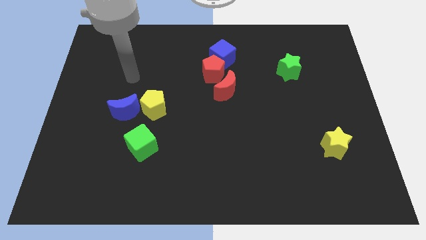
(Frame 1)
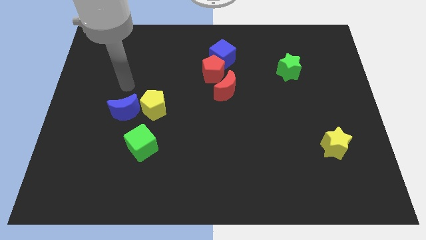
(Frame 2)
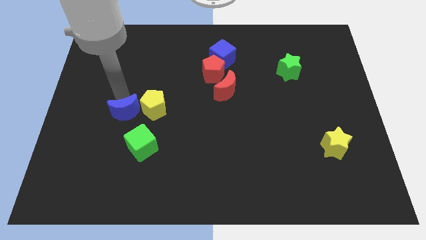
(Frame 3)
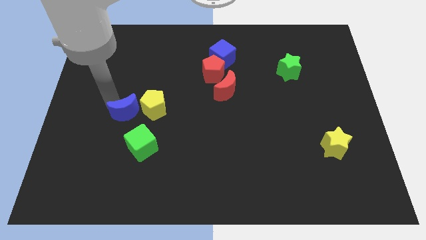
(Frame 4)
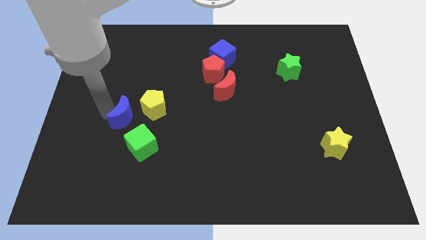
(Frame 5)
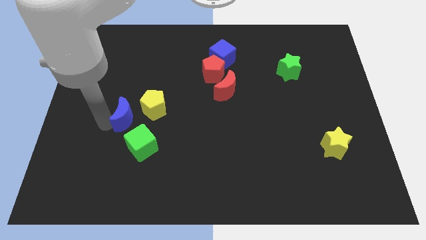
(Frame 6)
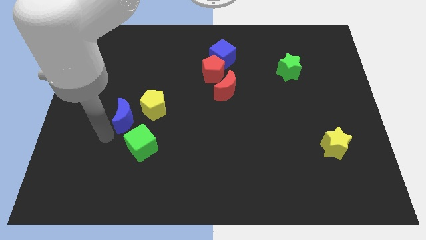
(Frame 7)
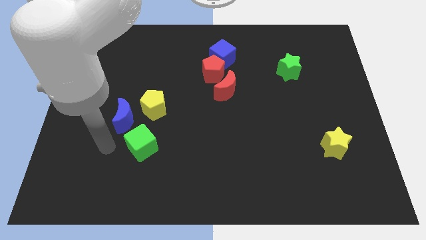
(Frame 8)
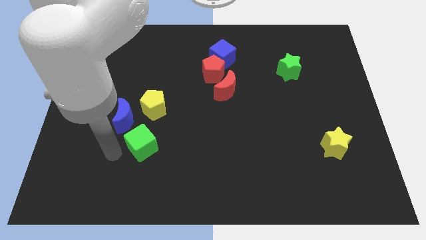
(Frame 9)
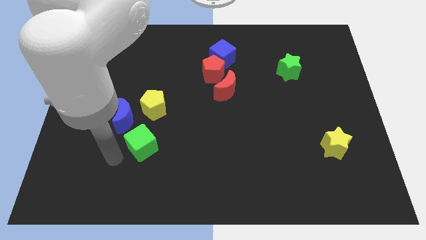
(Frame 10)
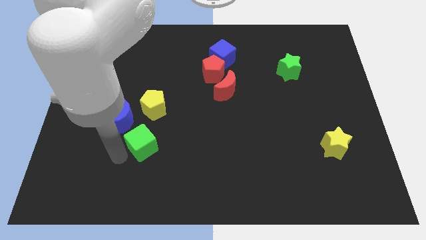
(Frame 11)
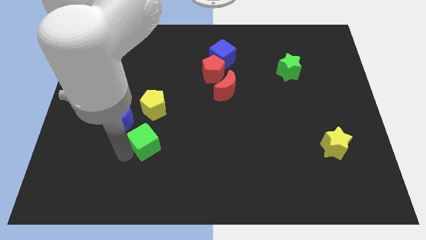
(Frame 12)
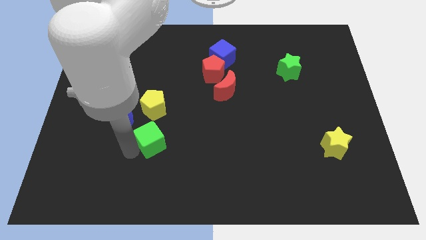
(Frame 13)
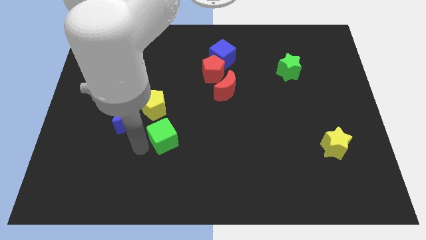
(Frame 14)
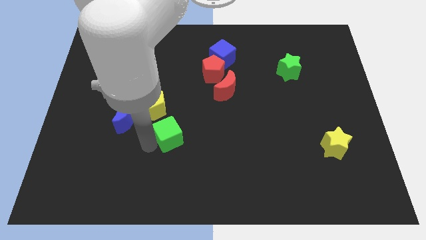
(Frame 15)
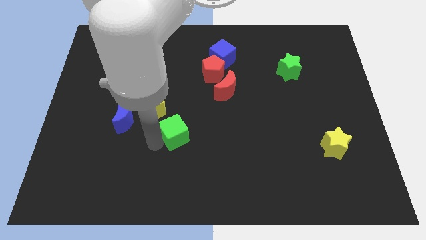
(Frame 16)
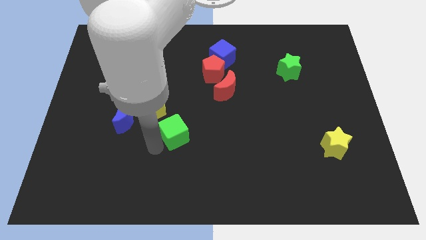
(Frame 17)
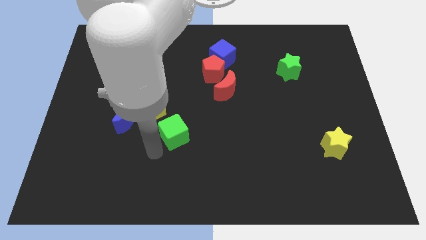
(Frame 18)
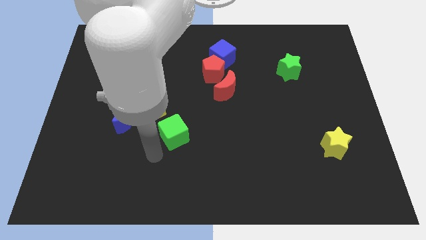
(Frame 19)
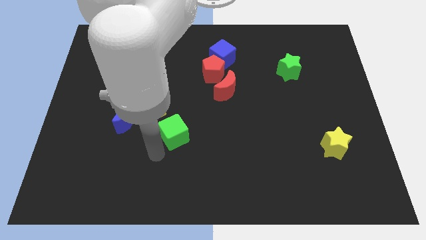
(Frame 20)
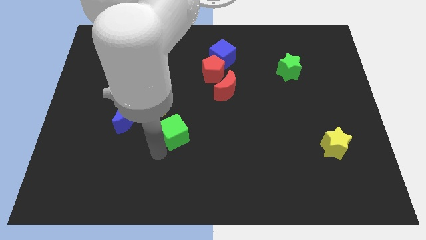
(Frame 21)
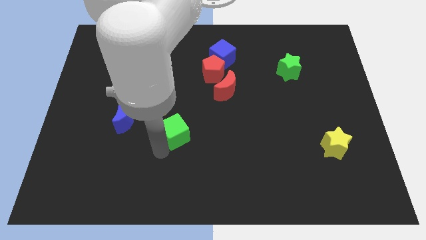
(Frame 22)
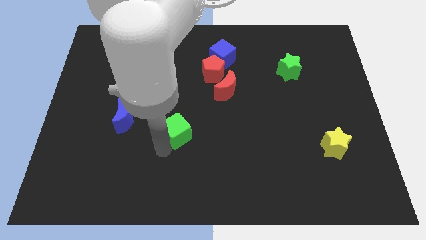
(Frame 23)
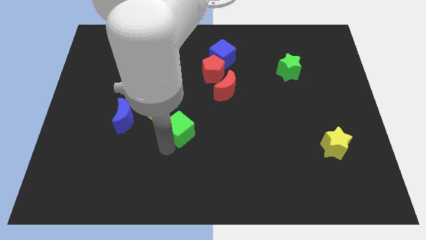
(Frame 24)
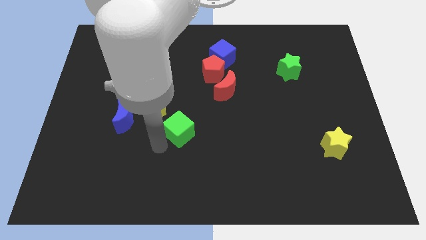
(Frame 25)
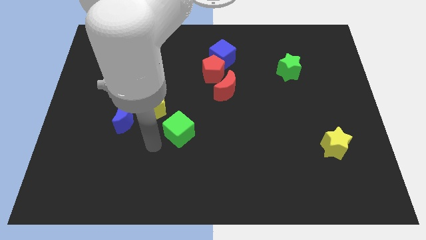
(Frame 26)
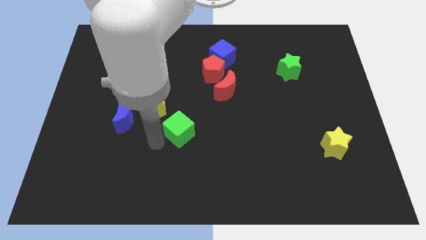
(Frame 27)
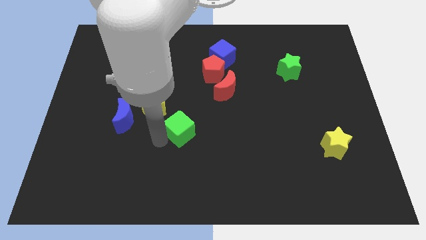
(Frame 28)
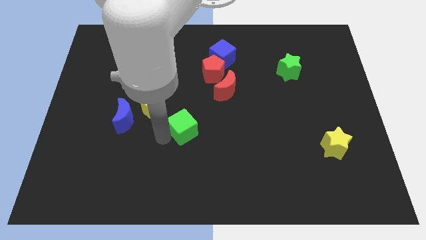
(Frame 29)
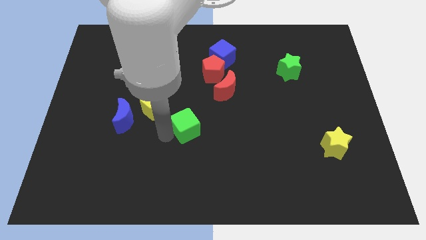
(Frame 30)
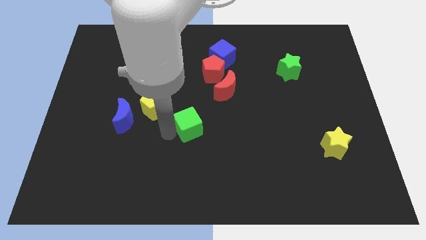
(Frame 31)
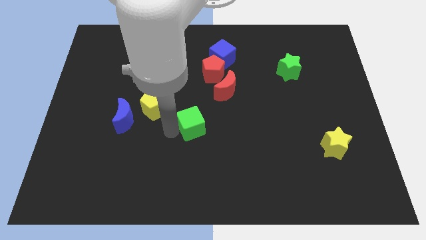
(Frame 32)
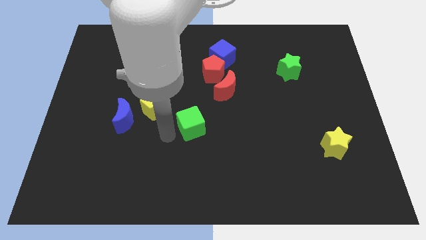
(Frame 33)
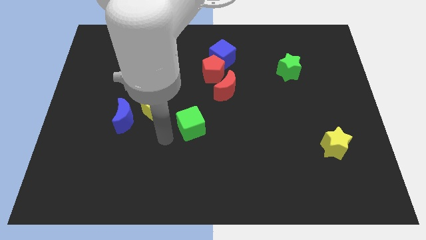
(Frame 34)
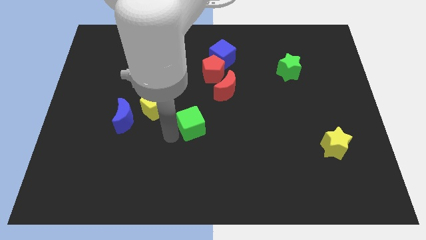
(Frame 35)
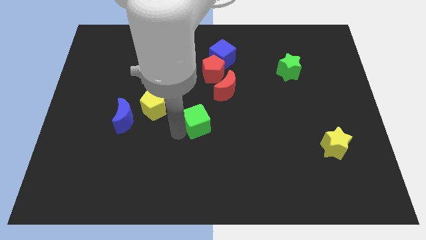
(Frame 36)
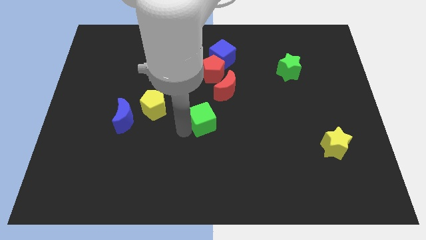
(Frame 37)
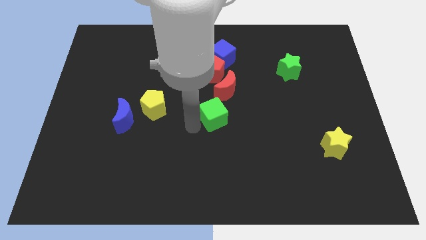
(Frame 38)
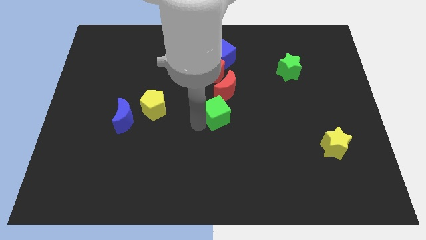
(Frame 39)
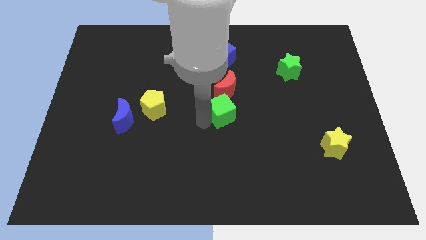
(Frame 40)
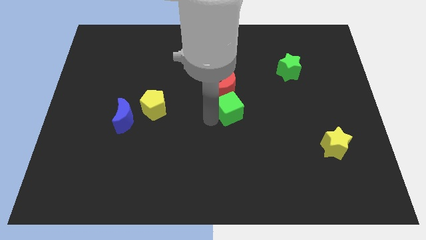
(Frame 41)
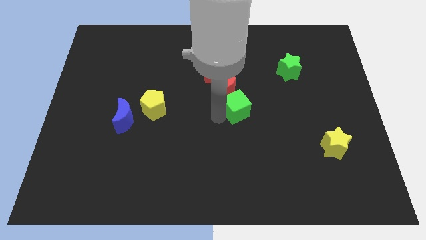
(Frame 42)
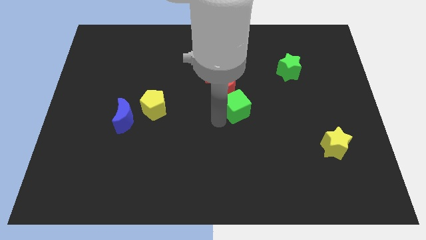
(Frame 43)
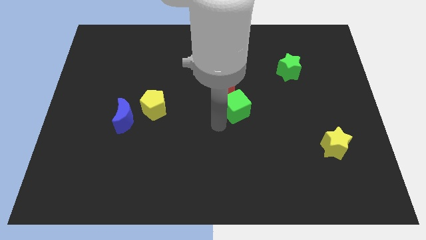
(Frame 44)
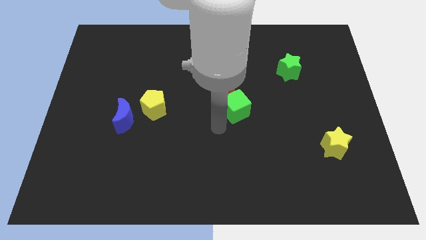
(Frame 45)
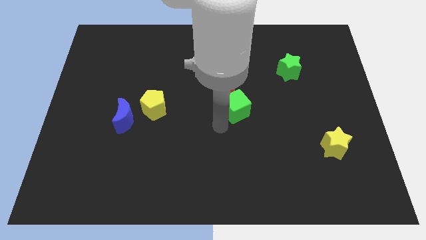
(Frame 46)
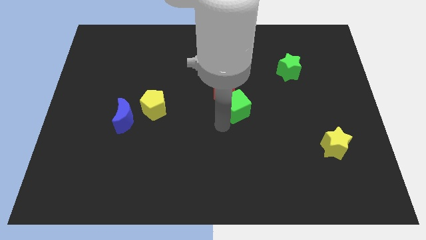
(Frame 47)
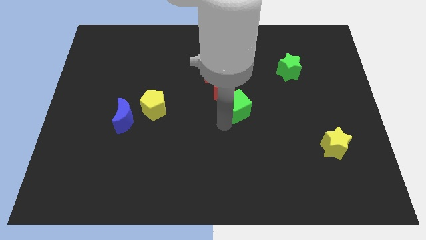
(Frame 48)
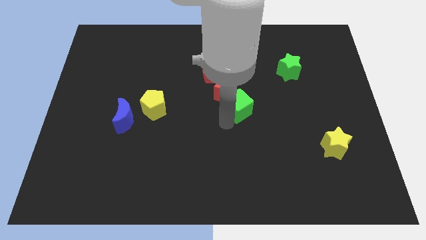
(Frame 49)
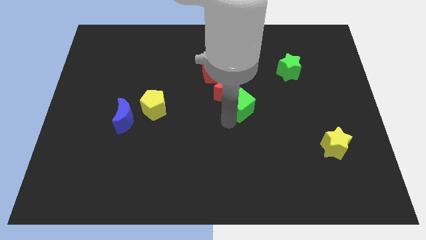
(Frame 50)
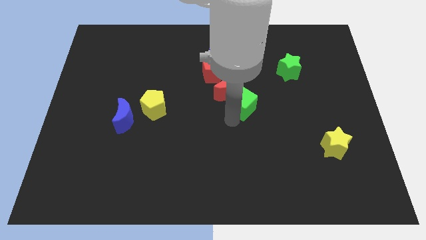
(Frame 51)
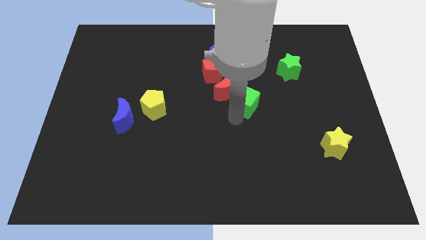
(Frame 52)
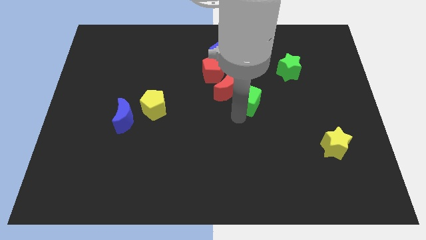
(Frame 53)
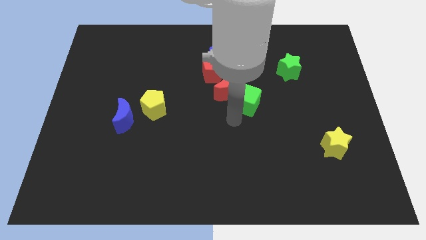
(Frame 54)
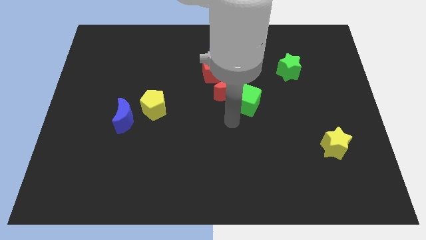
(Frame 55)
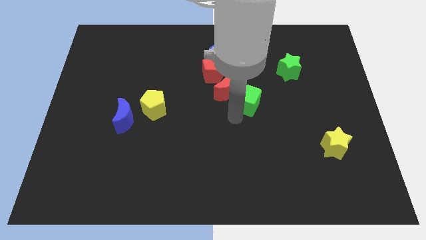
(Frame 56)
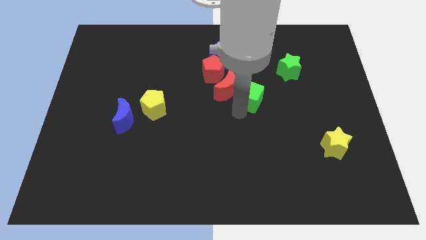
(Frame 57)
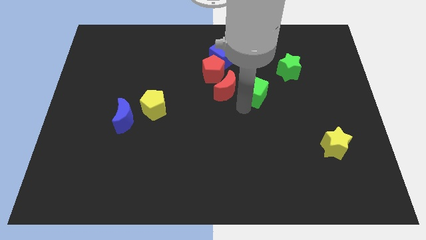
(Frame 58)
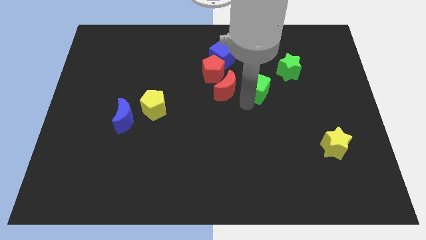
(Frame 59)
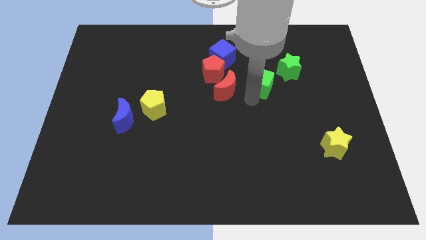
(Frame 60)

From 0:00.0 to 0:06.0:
move the green cube right of the red pentagon

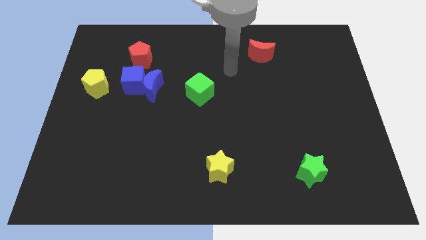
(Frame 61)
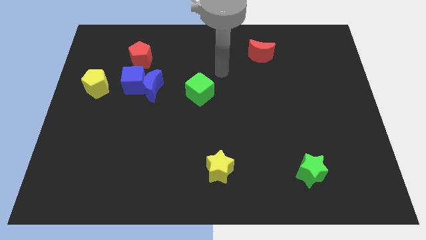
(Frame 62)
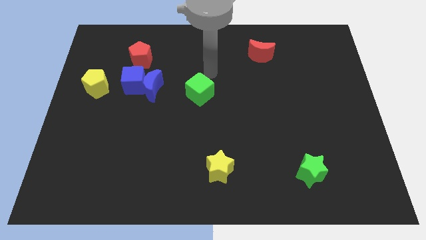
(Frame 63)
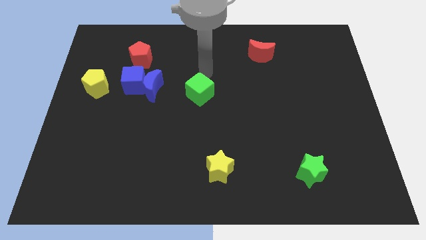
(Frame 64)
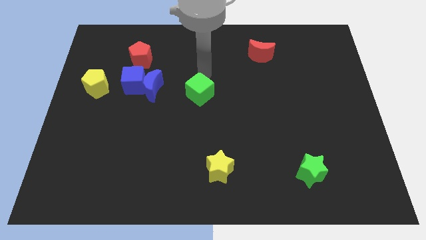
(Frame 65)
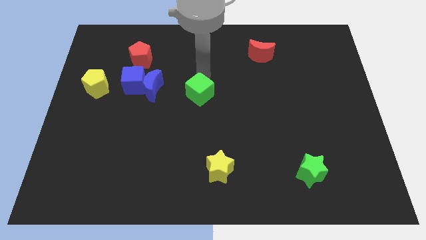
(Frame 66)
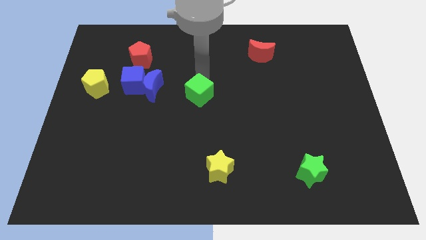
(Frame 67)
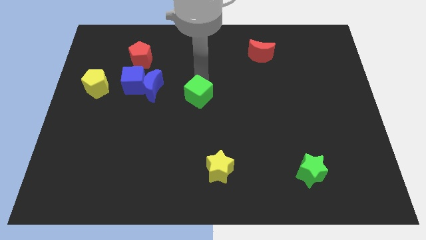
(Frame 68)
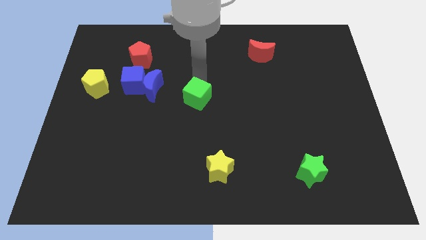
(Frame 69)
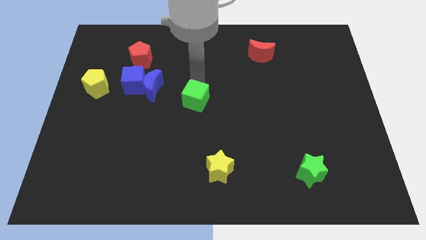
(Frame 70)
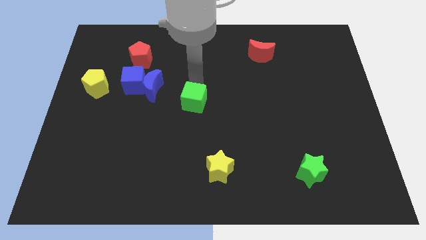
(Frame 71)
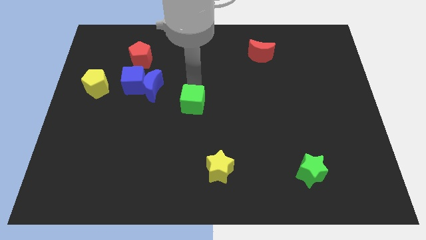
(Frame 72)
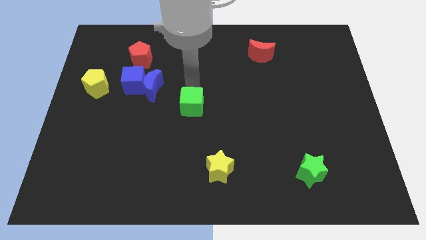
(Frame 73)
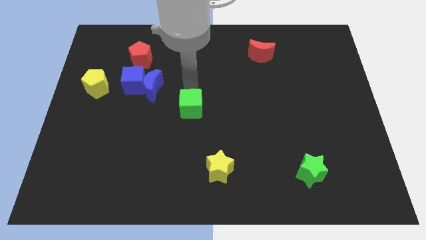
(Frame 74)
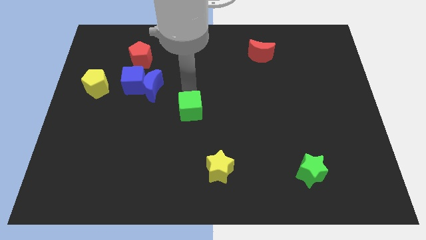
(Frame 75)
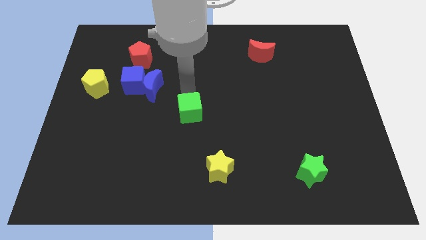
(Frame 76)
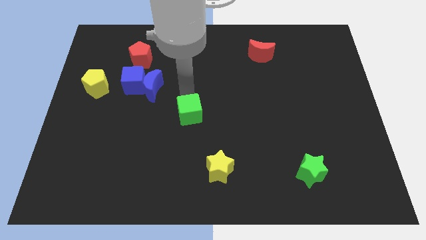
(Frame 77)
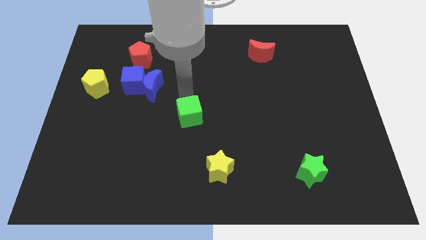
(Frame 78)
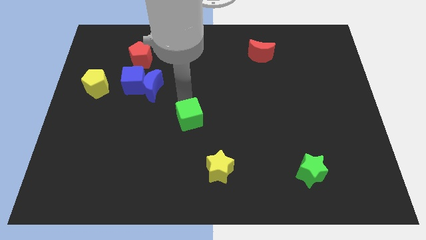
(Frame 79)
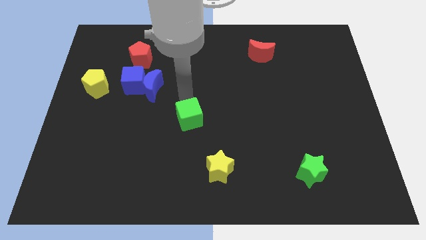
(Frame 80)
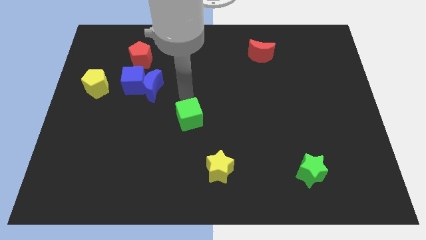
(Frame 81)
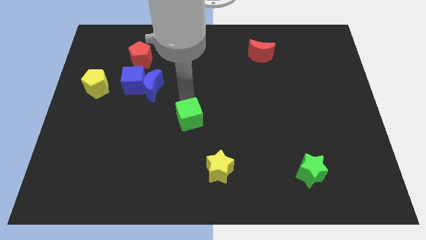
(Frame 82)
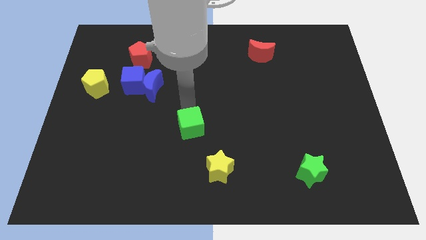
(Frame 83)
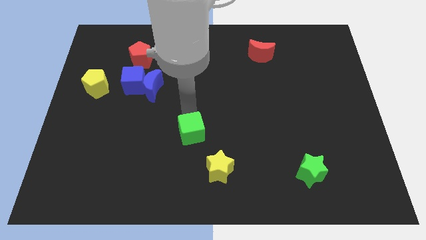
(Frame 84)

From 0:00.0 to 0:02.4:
put the green cube diagonally up and to the left of the yellow star
